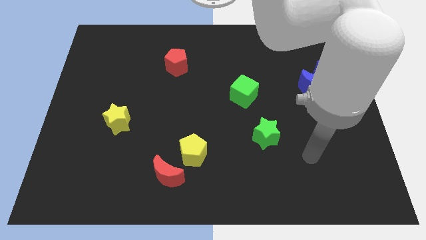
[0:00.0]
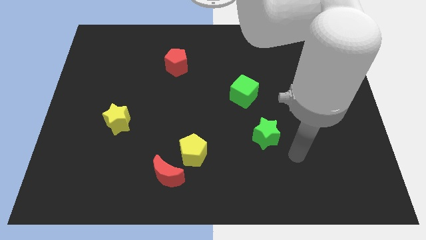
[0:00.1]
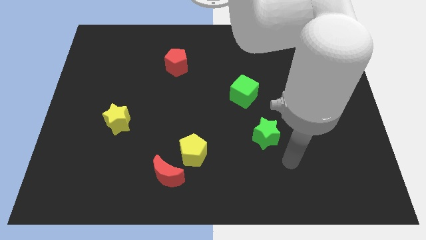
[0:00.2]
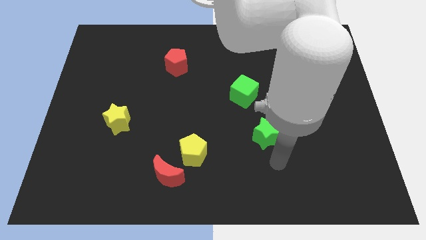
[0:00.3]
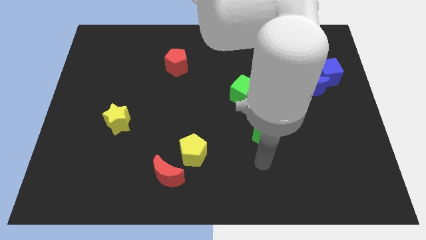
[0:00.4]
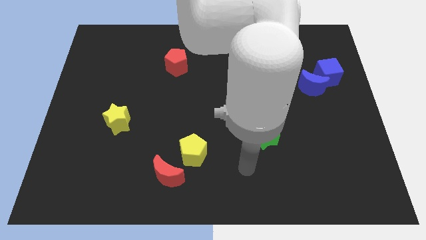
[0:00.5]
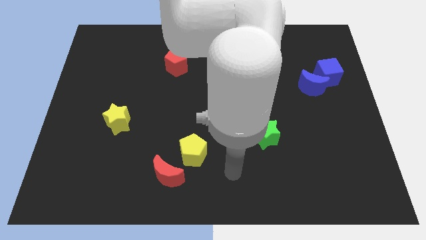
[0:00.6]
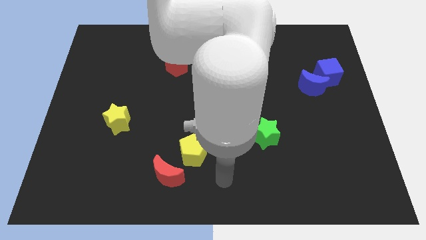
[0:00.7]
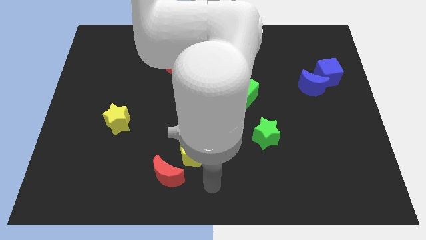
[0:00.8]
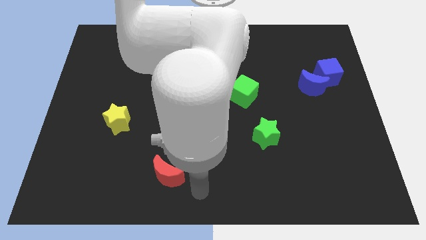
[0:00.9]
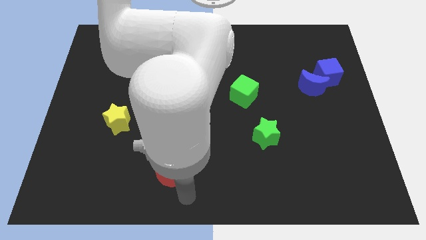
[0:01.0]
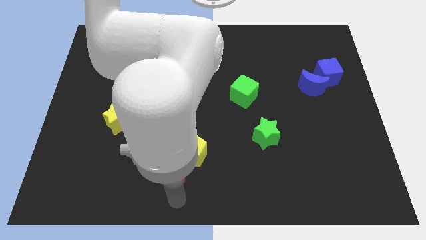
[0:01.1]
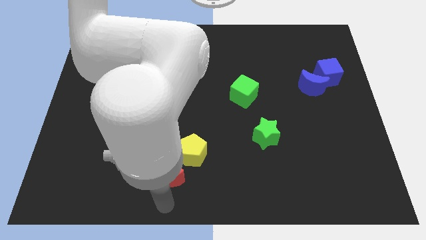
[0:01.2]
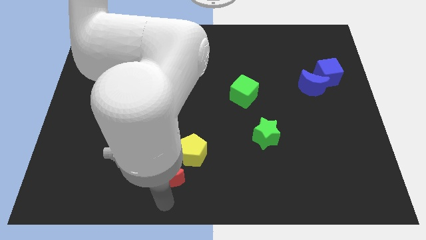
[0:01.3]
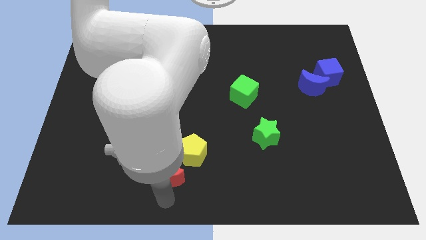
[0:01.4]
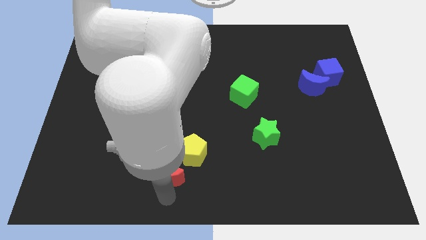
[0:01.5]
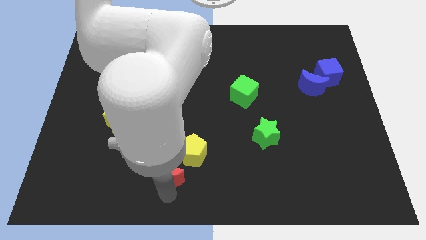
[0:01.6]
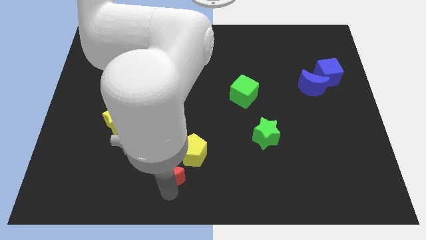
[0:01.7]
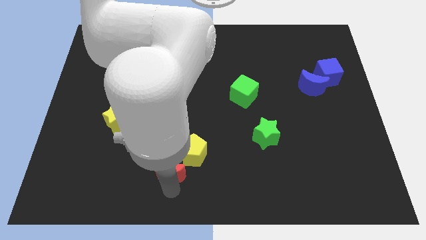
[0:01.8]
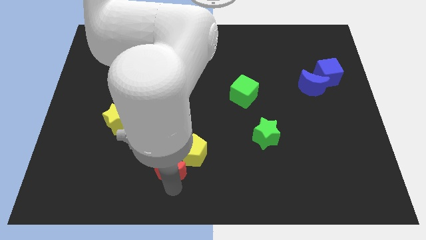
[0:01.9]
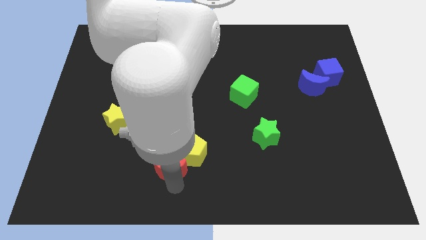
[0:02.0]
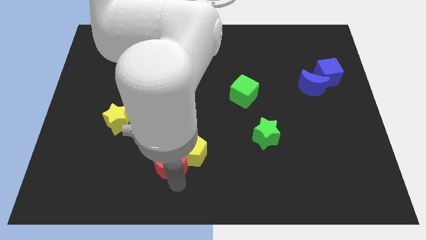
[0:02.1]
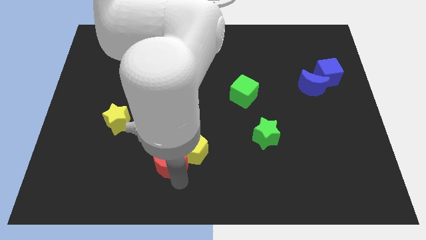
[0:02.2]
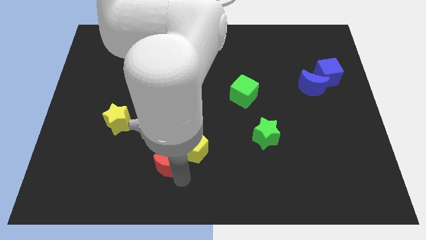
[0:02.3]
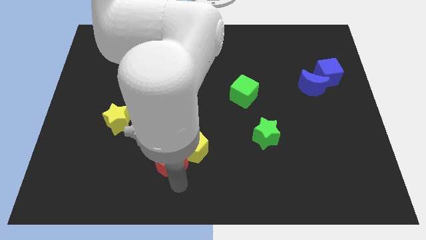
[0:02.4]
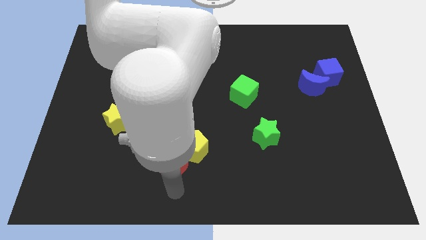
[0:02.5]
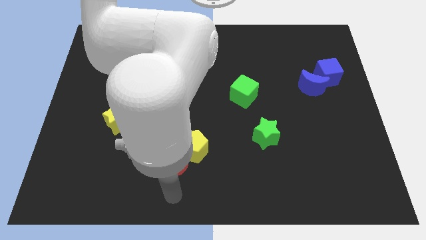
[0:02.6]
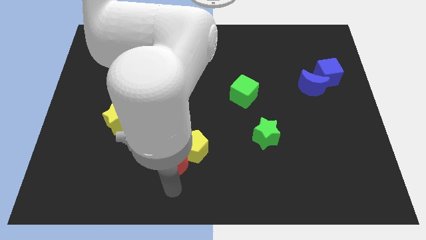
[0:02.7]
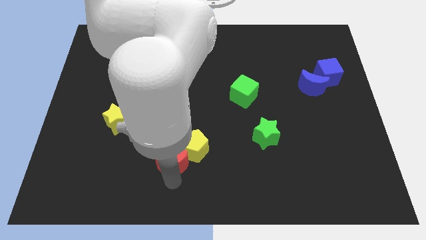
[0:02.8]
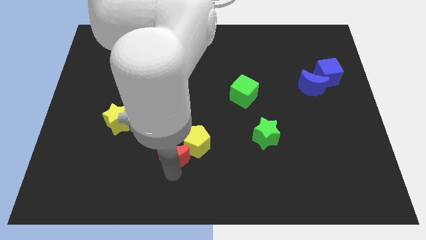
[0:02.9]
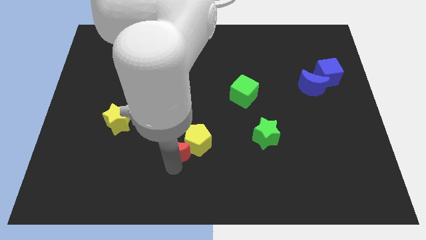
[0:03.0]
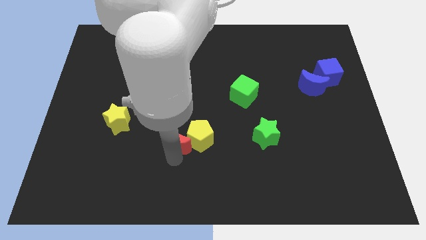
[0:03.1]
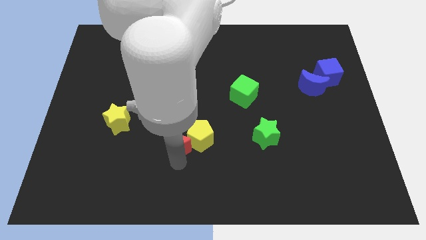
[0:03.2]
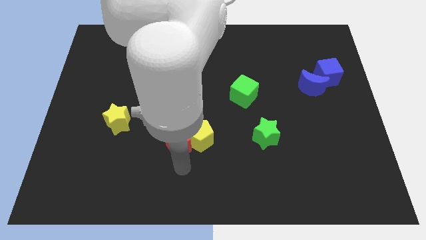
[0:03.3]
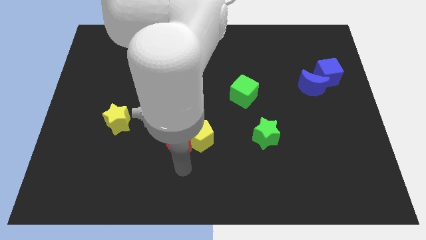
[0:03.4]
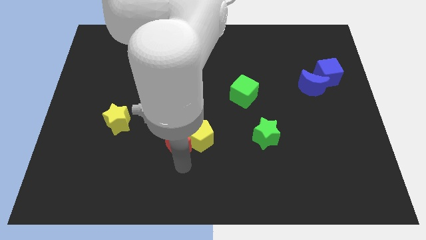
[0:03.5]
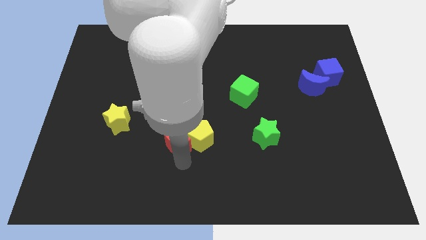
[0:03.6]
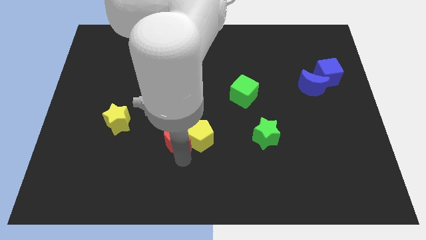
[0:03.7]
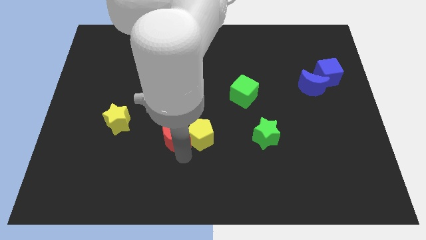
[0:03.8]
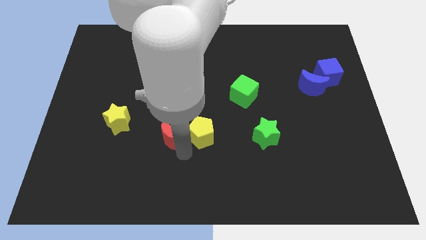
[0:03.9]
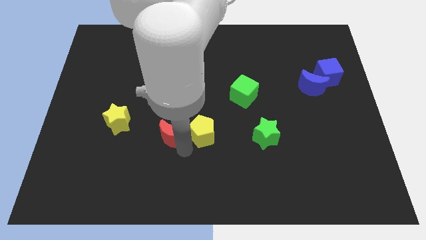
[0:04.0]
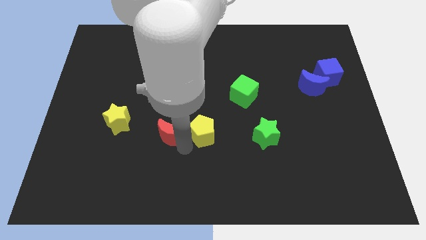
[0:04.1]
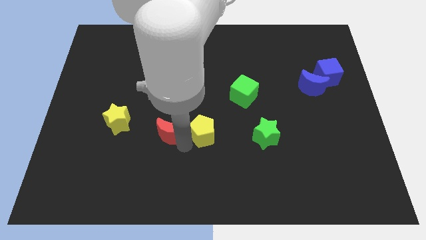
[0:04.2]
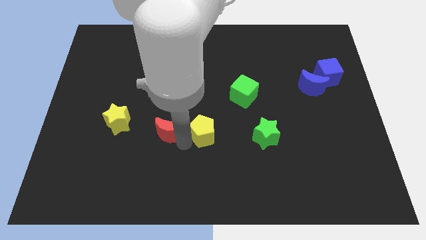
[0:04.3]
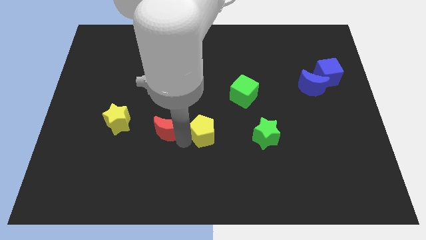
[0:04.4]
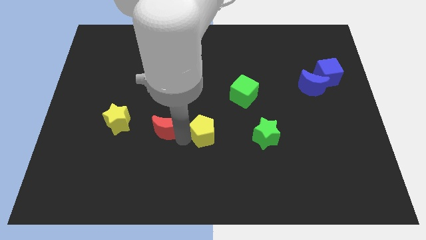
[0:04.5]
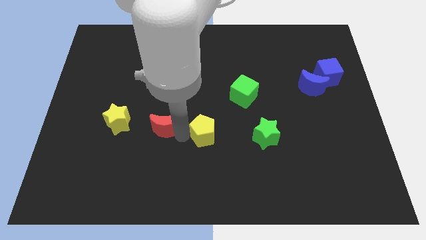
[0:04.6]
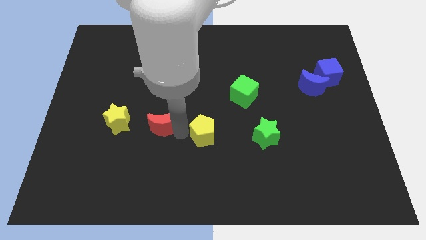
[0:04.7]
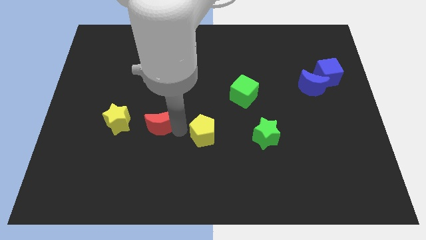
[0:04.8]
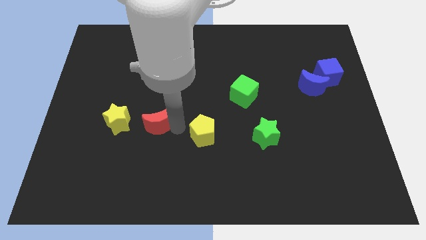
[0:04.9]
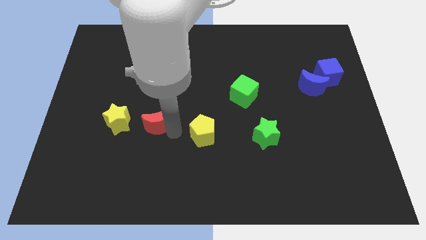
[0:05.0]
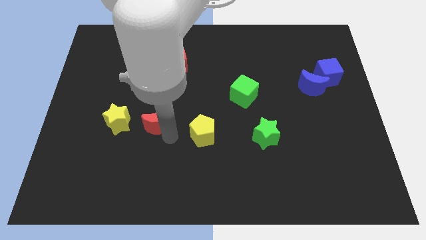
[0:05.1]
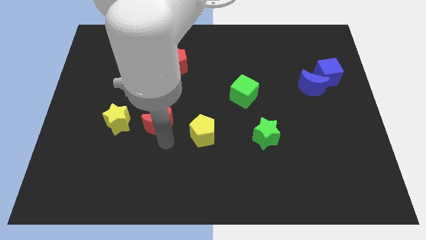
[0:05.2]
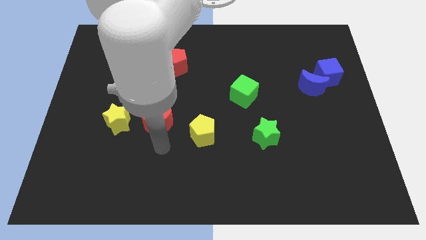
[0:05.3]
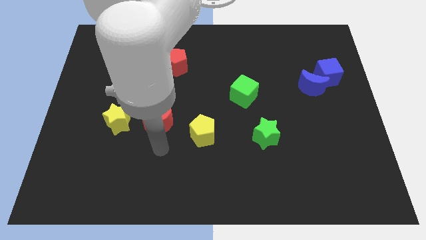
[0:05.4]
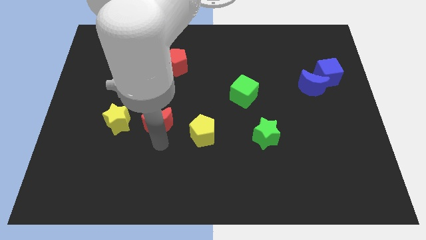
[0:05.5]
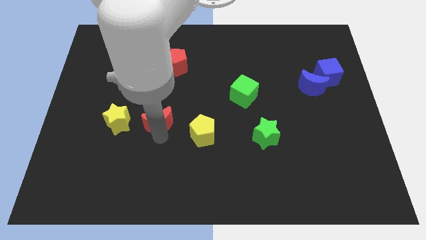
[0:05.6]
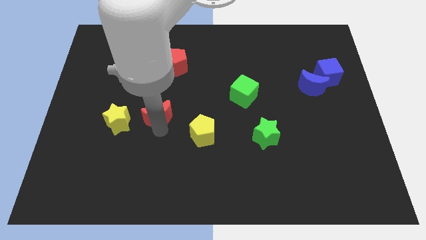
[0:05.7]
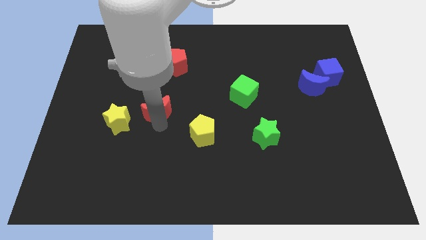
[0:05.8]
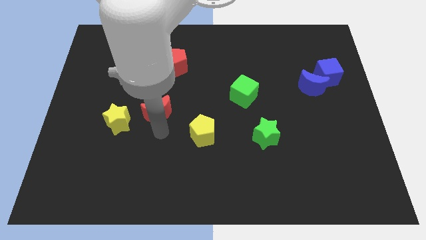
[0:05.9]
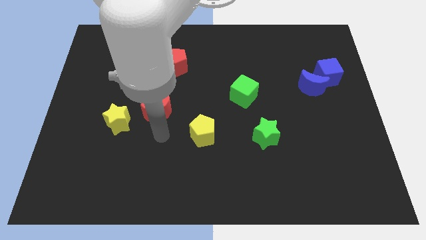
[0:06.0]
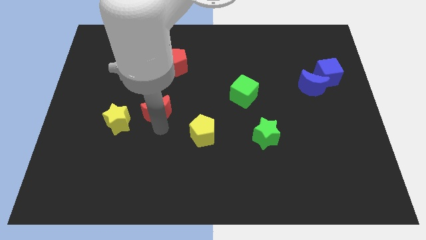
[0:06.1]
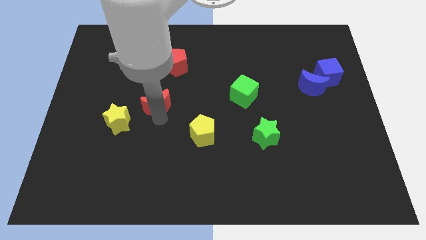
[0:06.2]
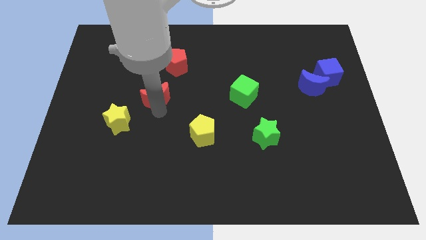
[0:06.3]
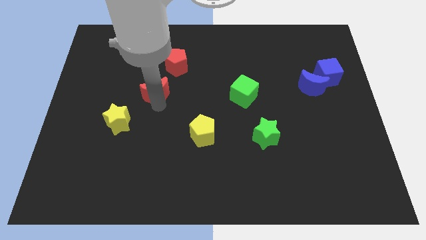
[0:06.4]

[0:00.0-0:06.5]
slide the red moon to the bottom left side of the red pentagon

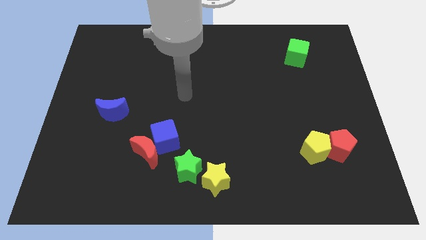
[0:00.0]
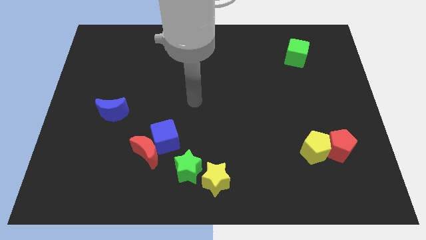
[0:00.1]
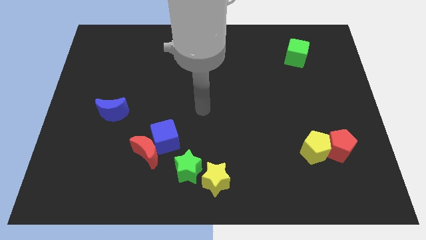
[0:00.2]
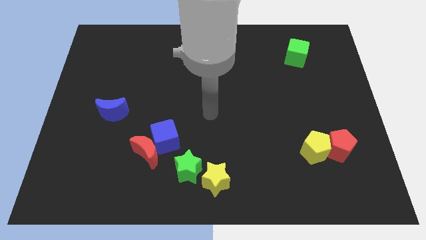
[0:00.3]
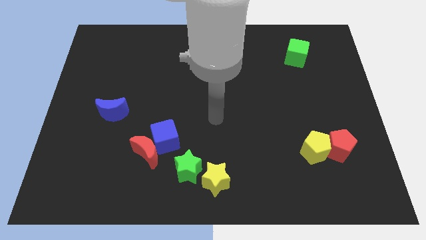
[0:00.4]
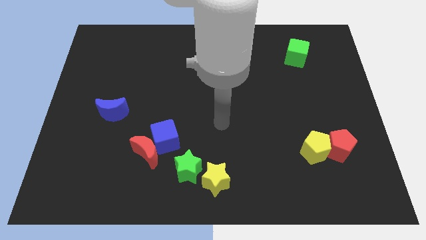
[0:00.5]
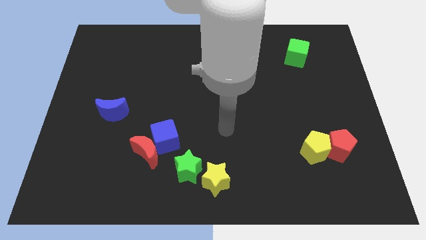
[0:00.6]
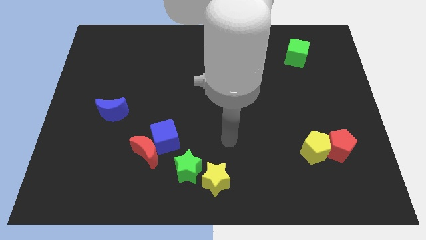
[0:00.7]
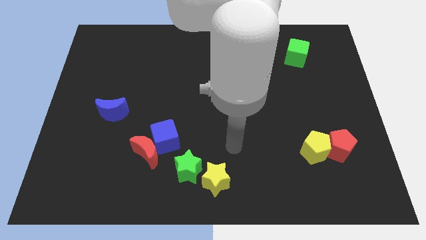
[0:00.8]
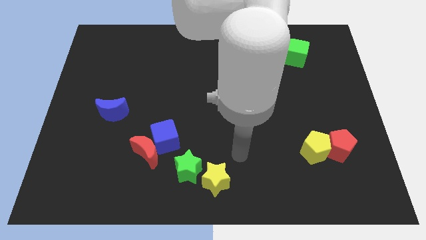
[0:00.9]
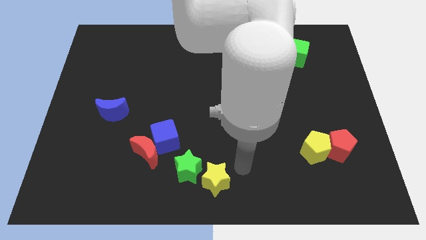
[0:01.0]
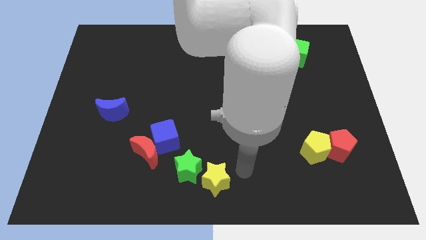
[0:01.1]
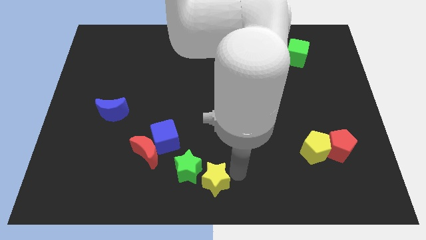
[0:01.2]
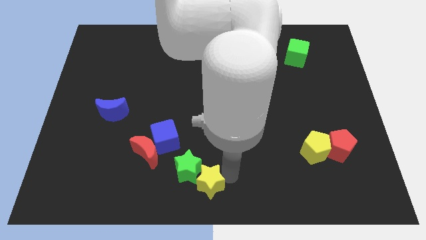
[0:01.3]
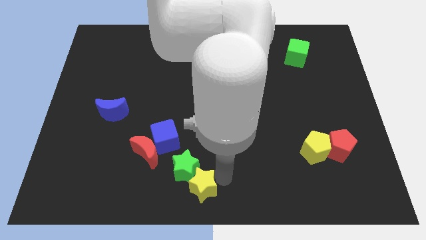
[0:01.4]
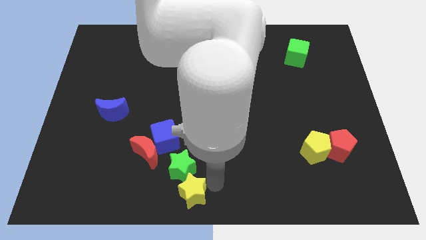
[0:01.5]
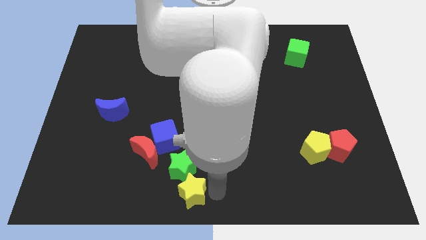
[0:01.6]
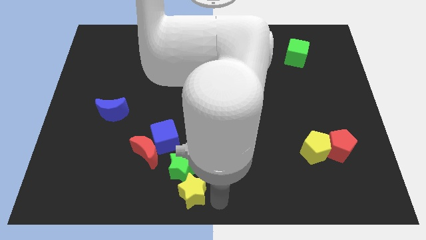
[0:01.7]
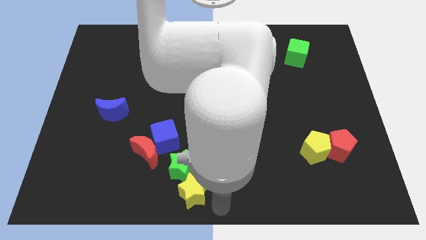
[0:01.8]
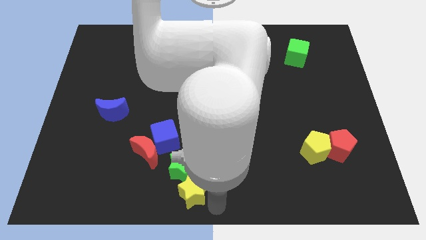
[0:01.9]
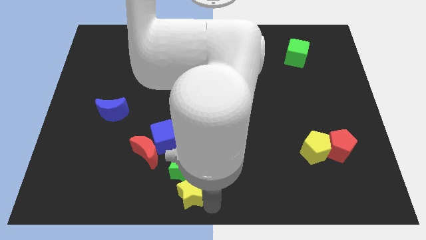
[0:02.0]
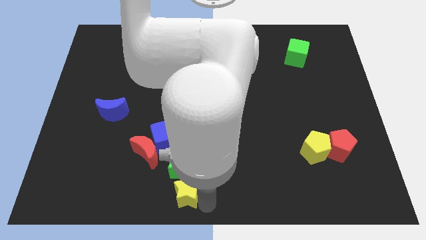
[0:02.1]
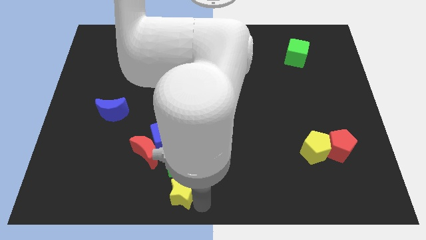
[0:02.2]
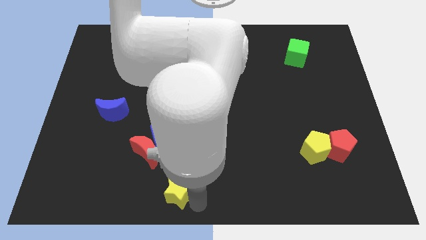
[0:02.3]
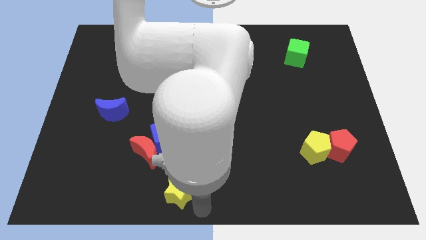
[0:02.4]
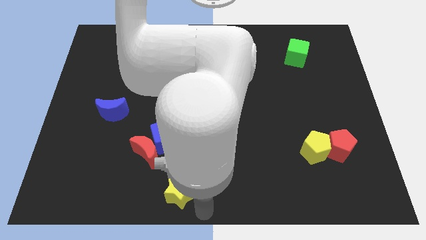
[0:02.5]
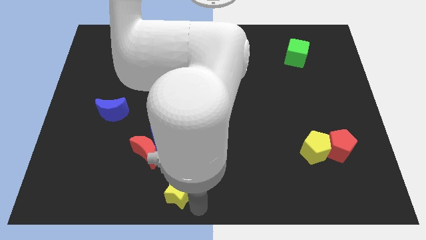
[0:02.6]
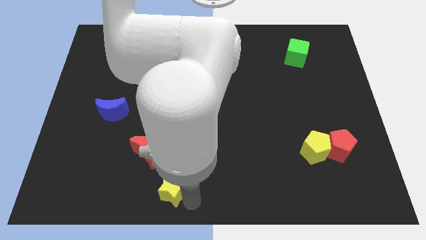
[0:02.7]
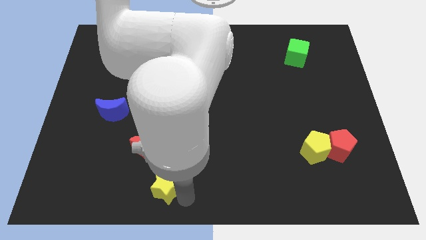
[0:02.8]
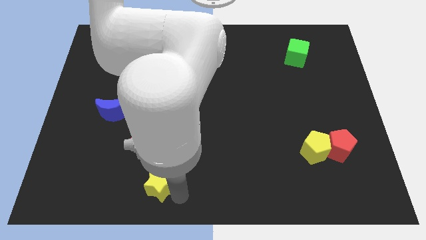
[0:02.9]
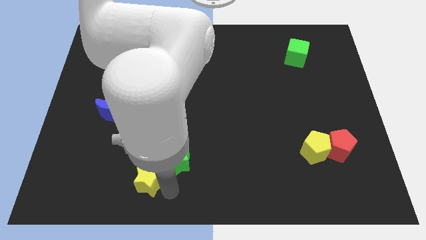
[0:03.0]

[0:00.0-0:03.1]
move the yellow star just left of the green star
